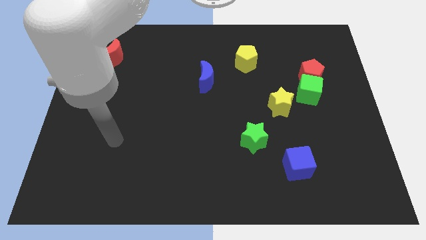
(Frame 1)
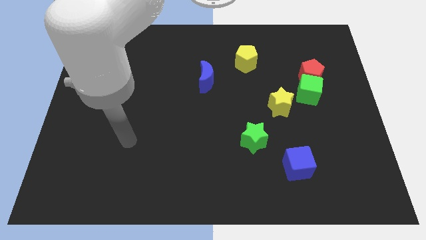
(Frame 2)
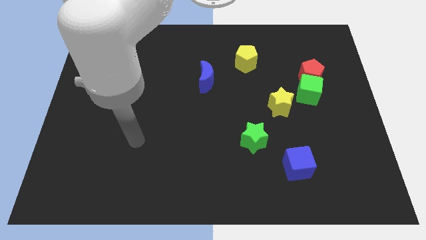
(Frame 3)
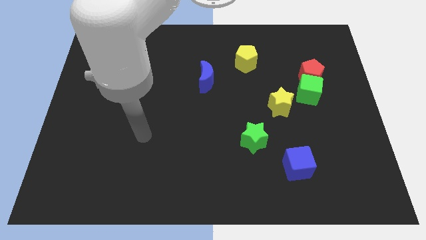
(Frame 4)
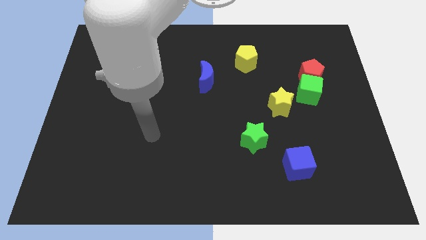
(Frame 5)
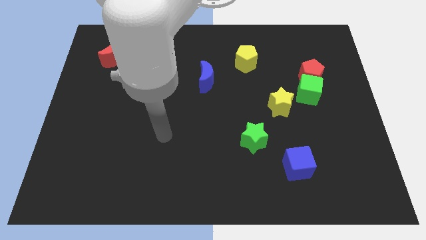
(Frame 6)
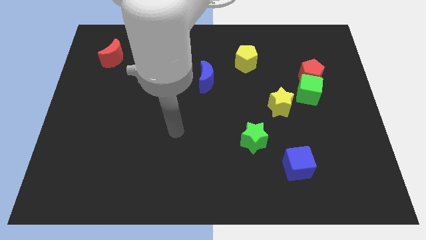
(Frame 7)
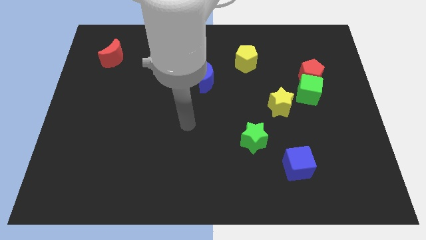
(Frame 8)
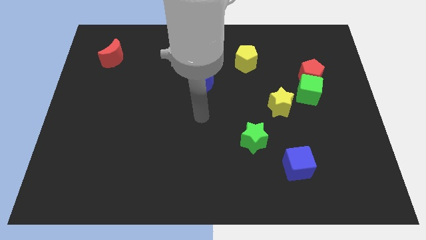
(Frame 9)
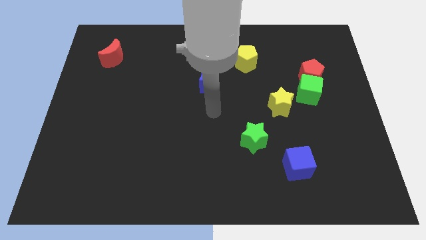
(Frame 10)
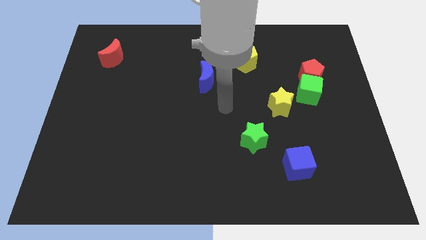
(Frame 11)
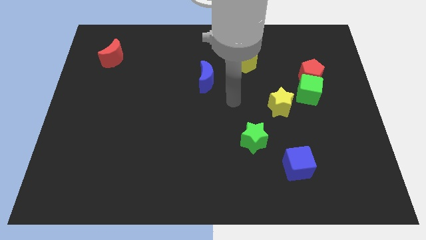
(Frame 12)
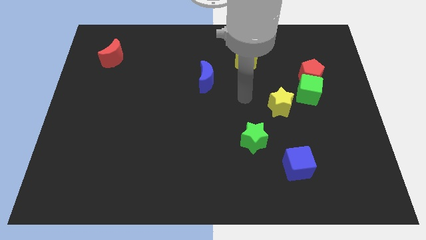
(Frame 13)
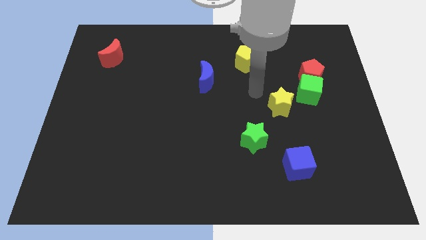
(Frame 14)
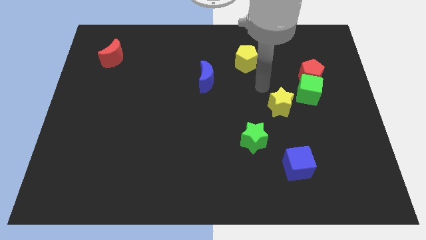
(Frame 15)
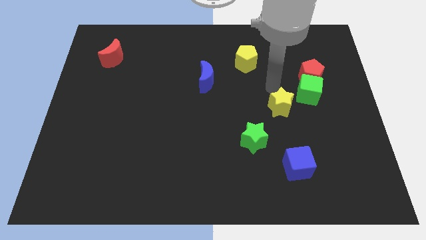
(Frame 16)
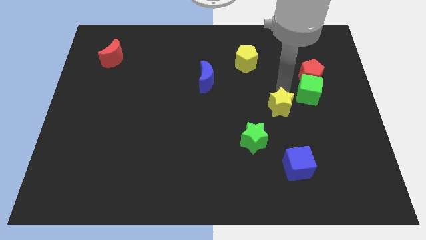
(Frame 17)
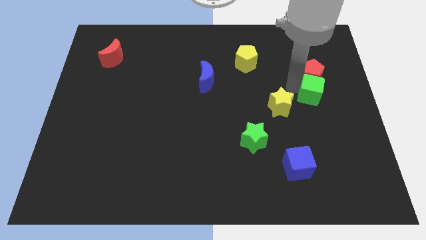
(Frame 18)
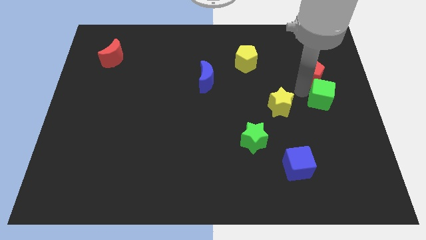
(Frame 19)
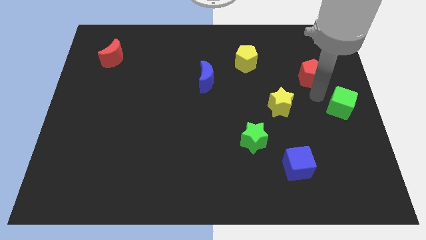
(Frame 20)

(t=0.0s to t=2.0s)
separate the red pentagon from the green cube

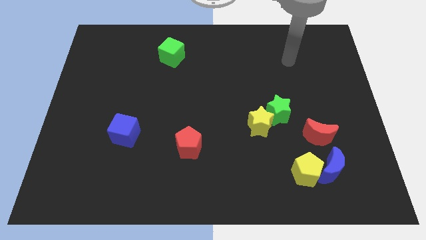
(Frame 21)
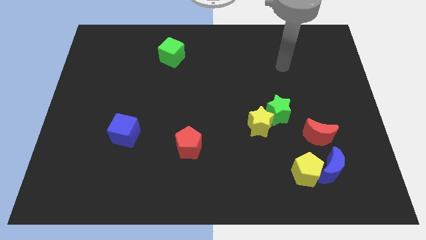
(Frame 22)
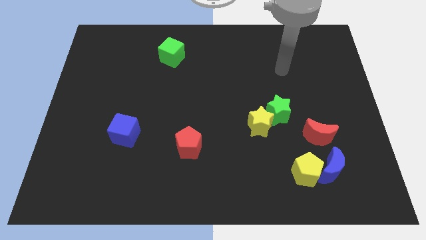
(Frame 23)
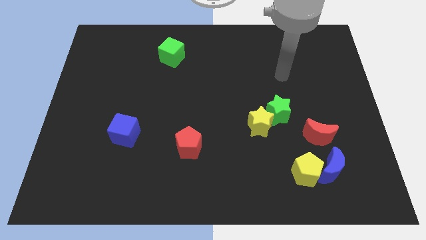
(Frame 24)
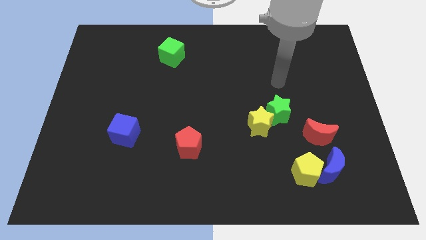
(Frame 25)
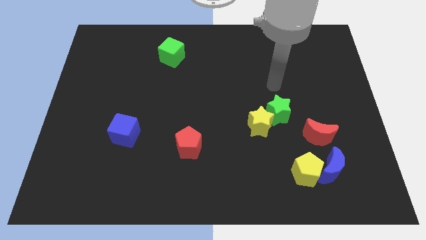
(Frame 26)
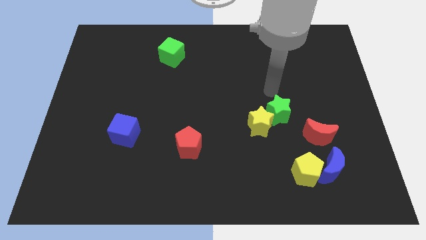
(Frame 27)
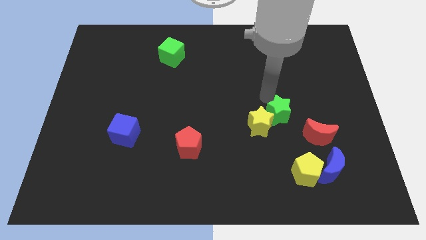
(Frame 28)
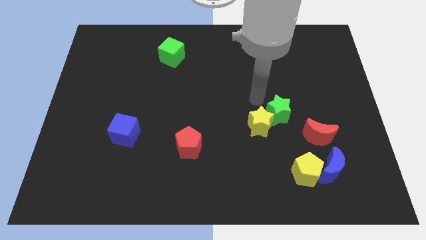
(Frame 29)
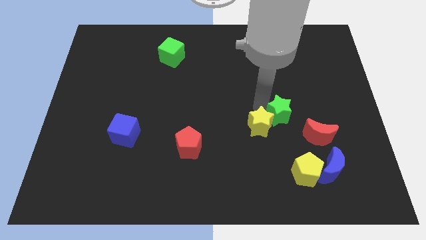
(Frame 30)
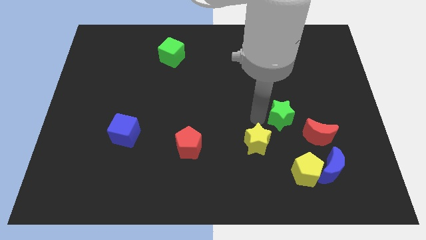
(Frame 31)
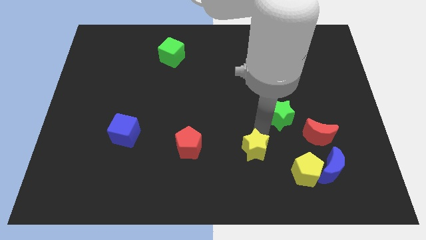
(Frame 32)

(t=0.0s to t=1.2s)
move the green star away from the yellow star

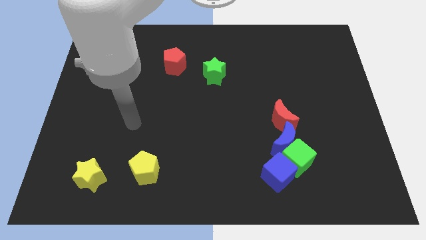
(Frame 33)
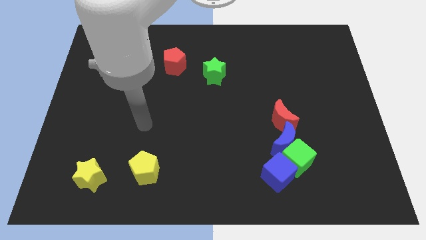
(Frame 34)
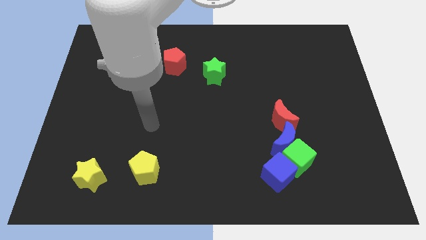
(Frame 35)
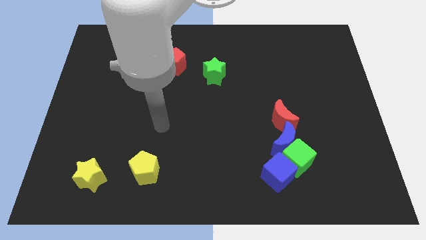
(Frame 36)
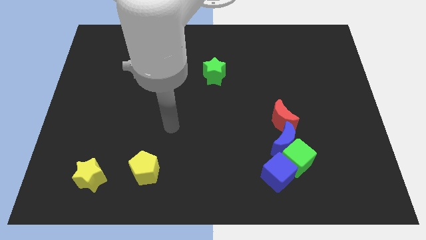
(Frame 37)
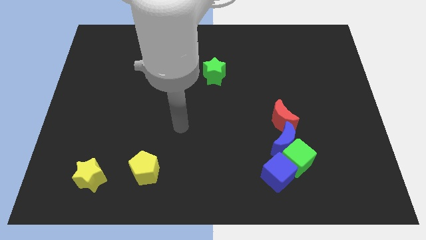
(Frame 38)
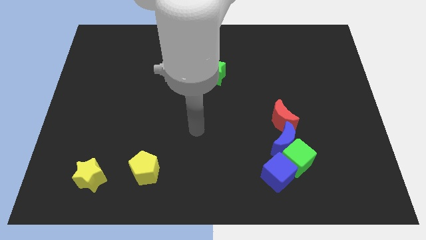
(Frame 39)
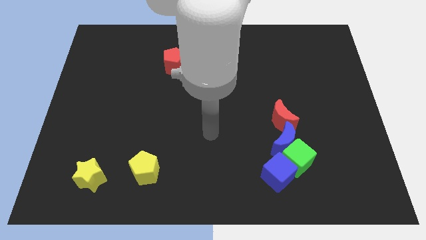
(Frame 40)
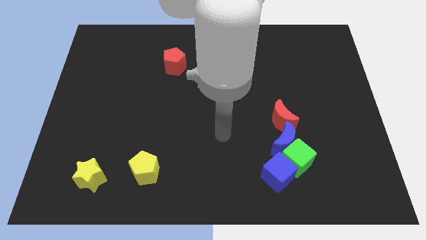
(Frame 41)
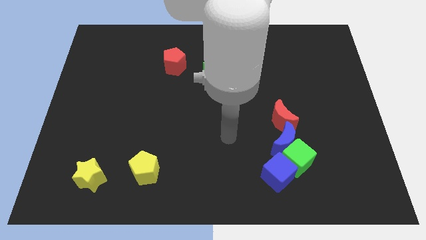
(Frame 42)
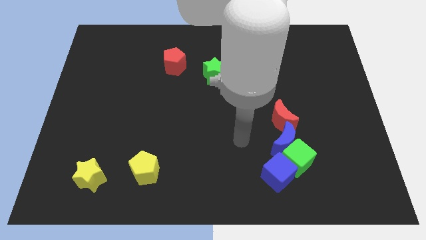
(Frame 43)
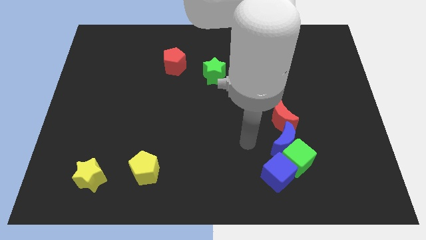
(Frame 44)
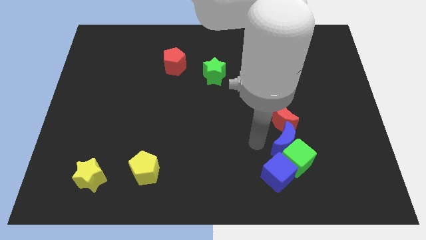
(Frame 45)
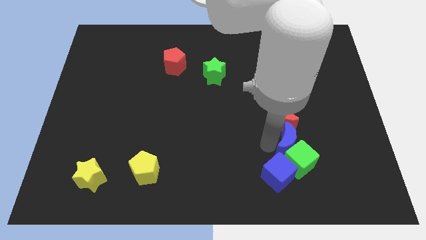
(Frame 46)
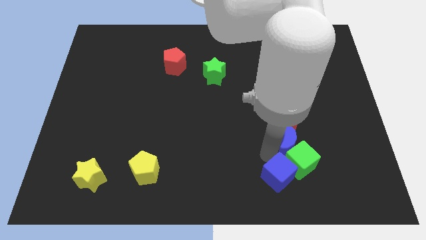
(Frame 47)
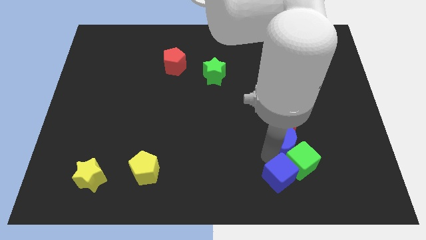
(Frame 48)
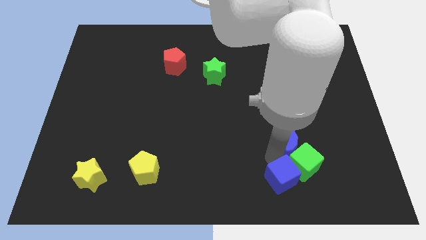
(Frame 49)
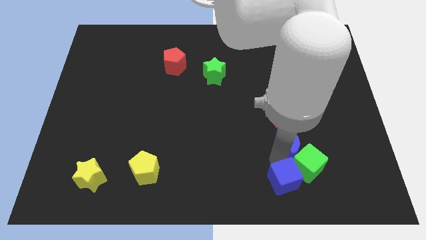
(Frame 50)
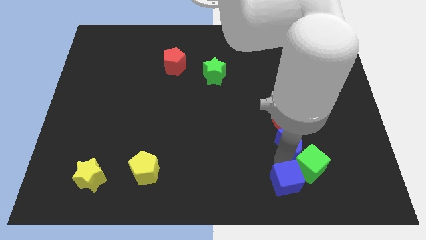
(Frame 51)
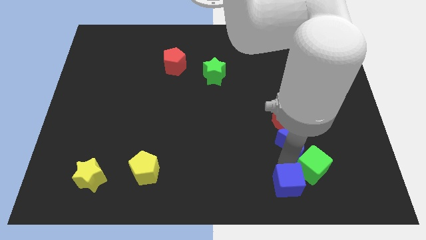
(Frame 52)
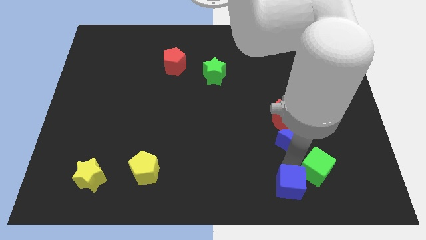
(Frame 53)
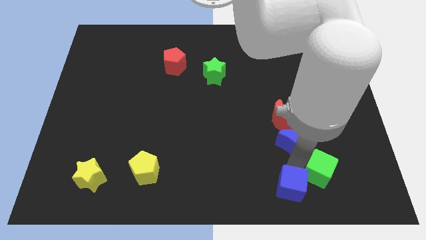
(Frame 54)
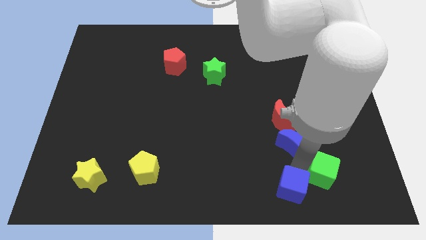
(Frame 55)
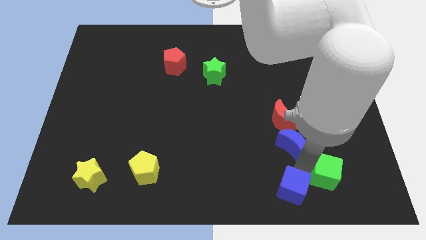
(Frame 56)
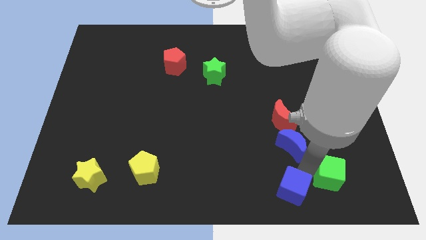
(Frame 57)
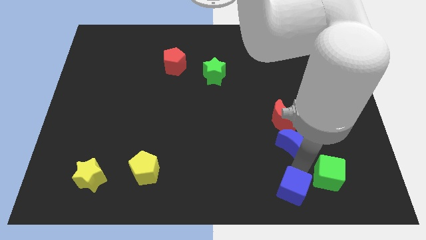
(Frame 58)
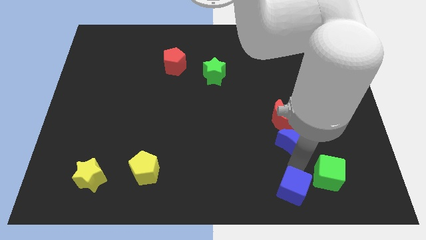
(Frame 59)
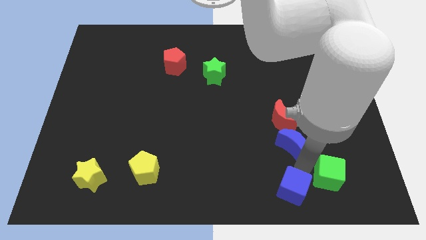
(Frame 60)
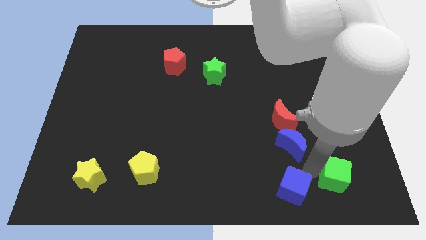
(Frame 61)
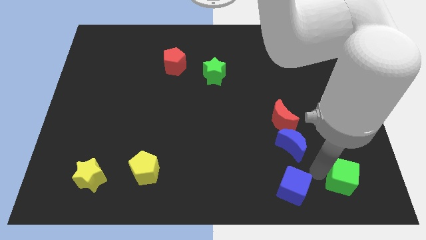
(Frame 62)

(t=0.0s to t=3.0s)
separate the green cube from the blue moon and blue cube

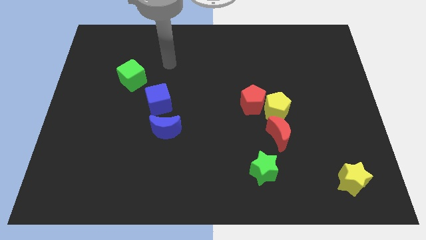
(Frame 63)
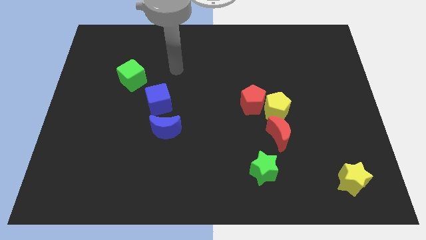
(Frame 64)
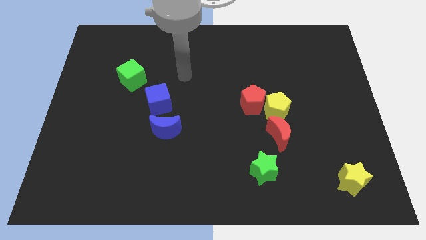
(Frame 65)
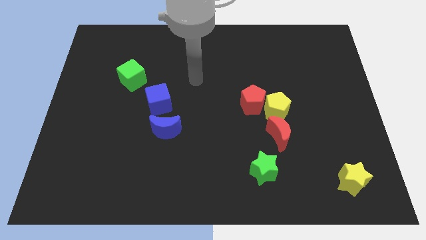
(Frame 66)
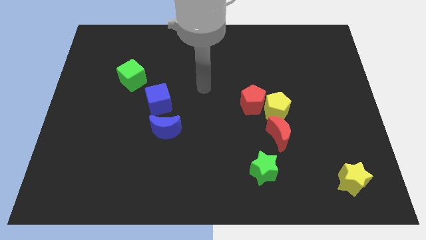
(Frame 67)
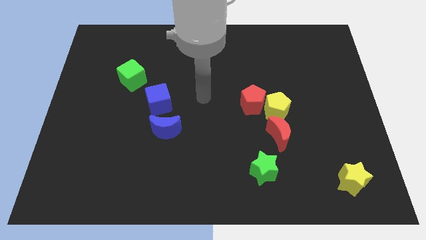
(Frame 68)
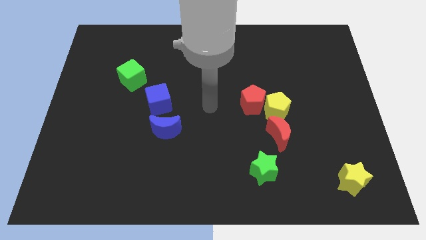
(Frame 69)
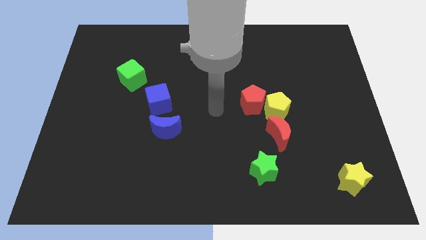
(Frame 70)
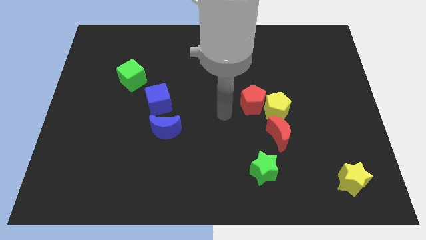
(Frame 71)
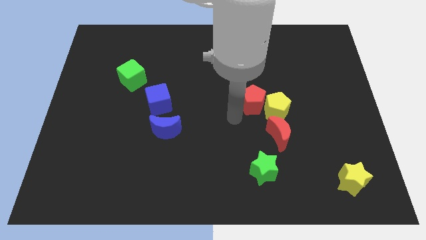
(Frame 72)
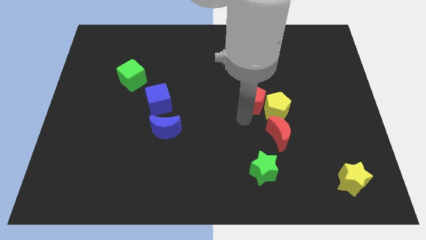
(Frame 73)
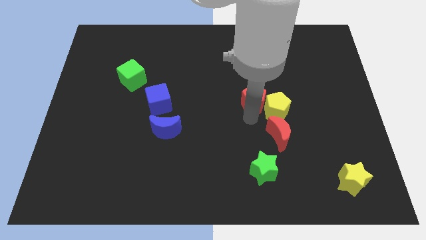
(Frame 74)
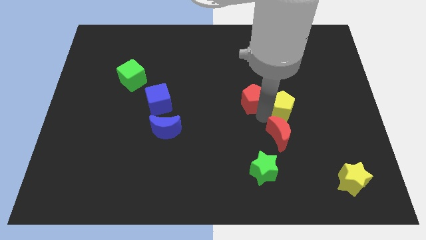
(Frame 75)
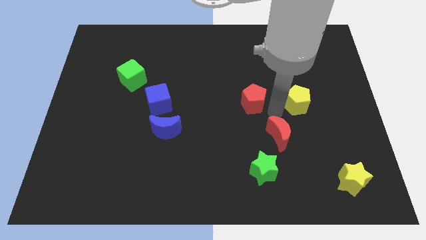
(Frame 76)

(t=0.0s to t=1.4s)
separate the red pentagon from the yellow pentagon

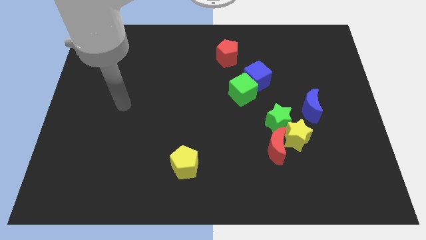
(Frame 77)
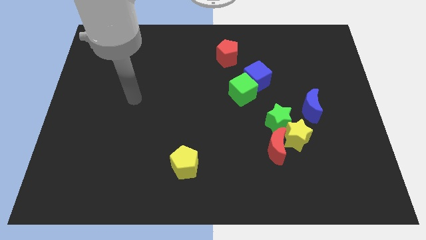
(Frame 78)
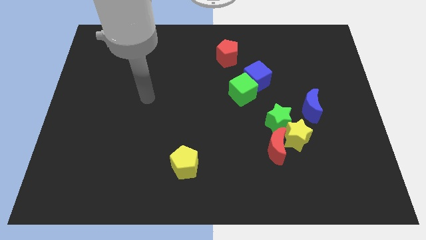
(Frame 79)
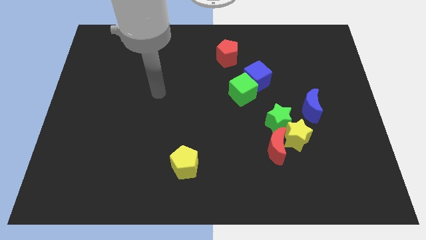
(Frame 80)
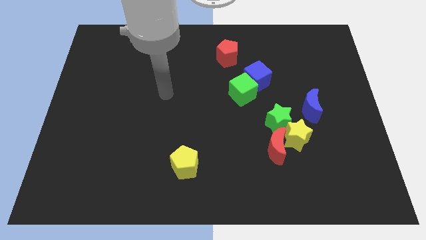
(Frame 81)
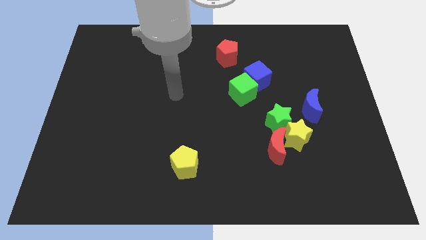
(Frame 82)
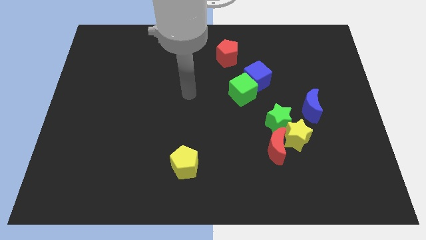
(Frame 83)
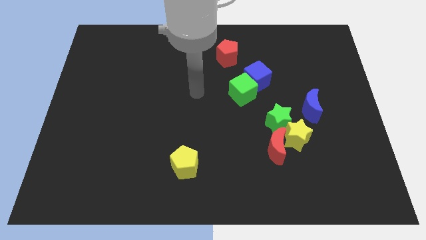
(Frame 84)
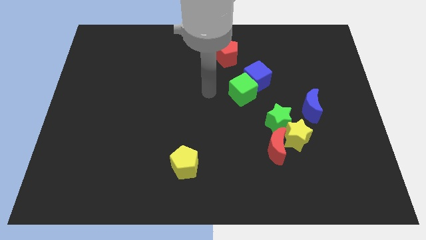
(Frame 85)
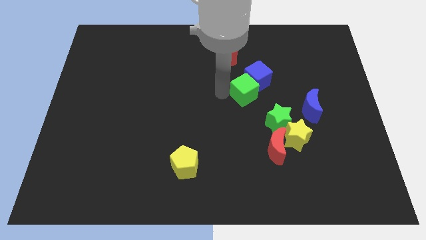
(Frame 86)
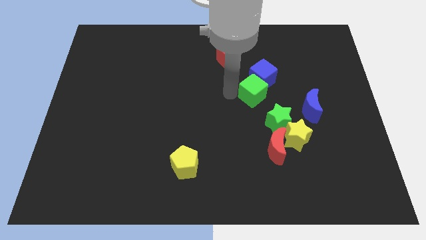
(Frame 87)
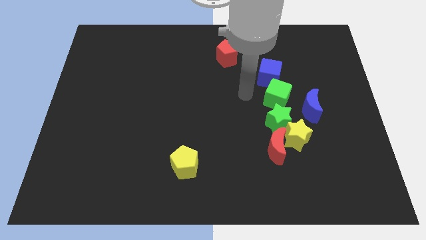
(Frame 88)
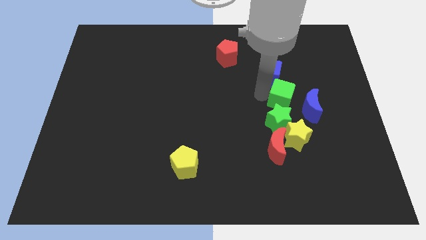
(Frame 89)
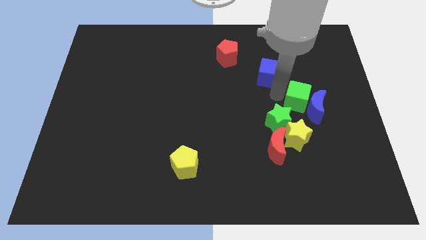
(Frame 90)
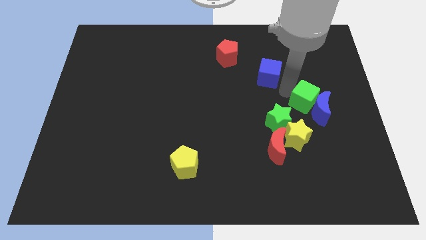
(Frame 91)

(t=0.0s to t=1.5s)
move the blue cube away from the green cube
